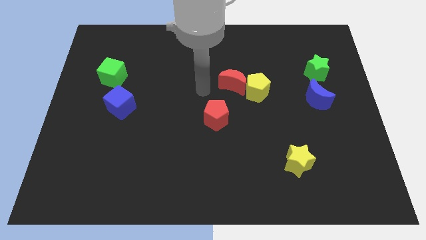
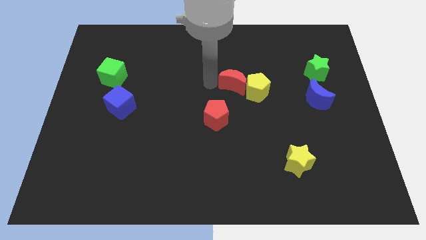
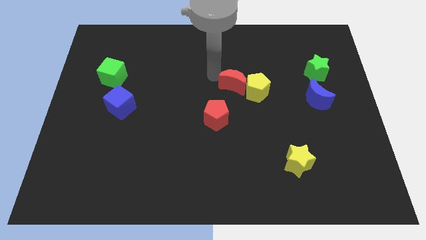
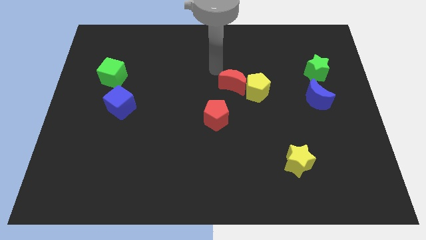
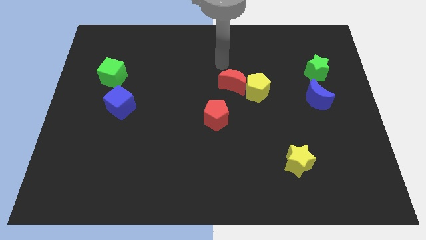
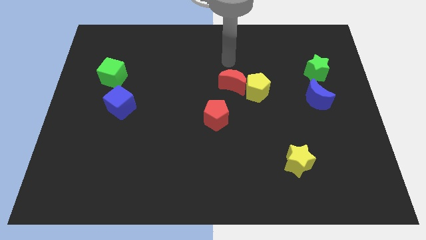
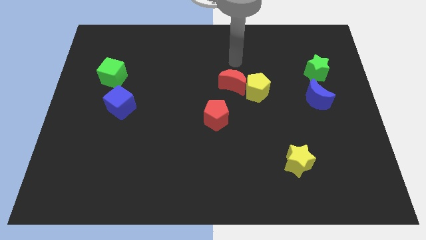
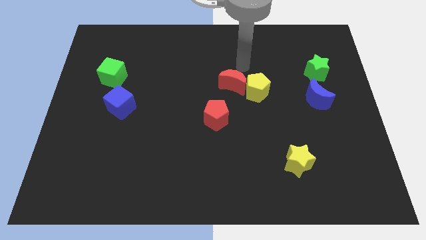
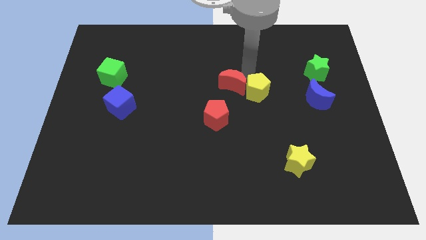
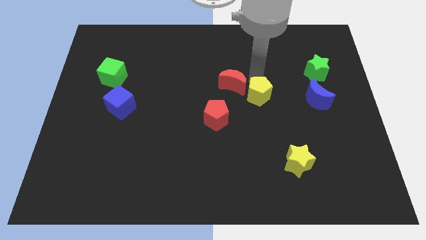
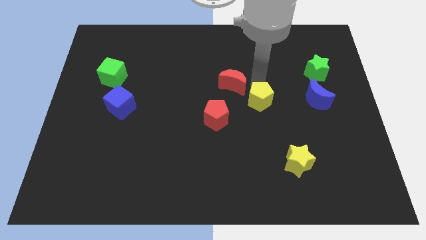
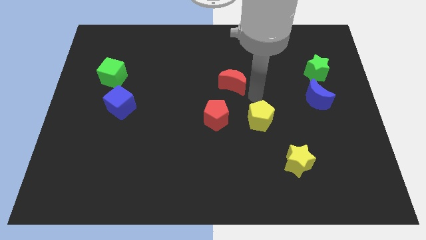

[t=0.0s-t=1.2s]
separate the red moon from the yellow pentagon

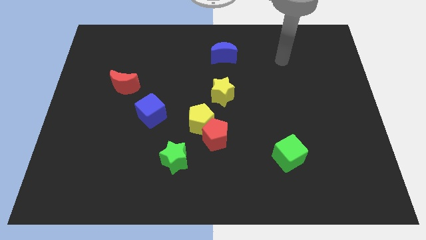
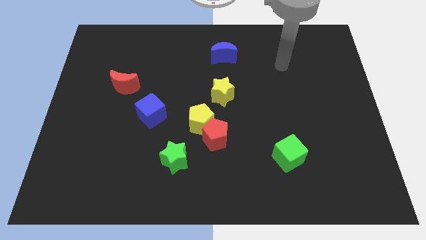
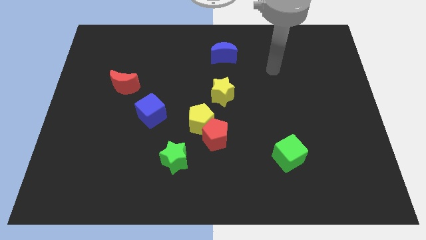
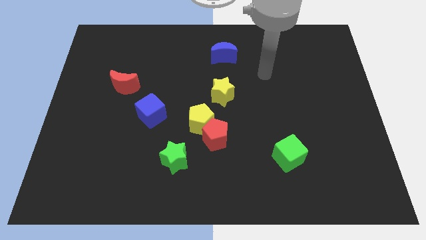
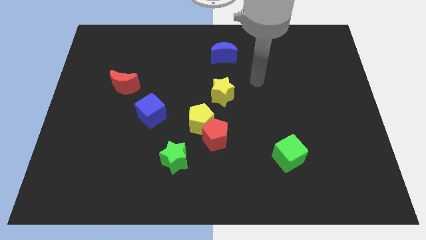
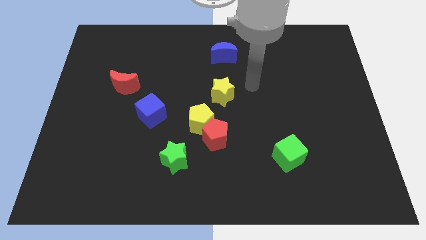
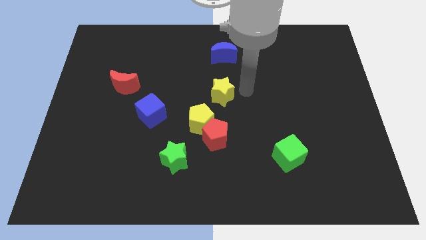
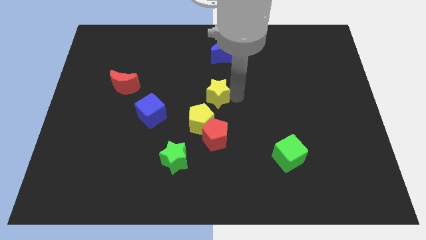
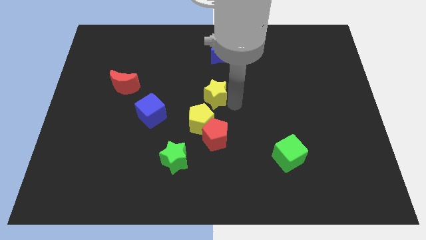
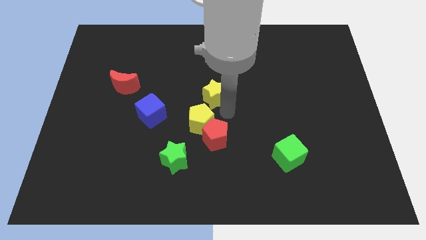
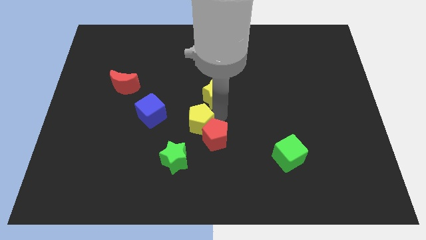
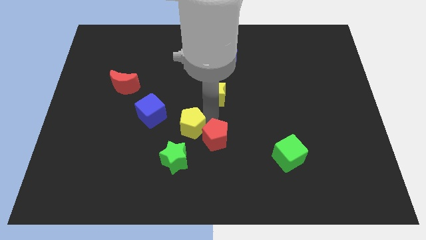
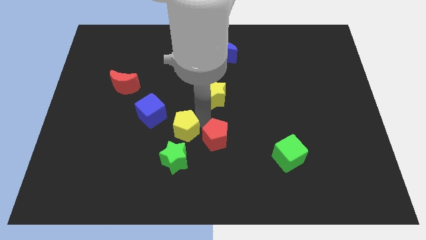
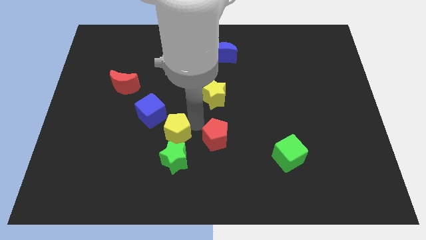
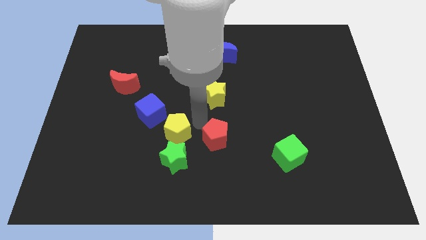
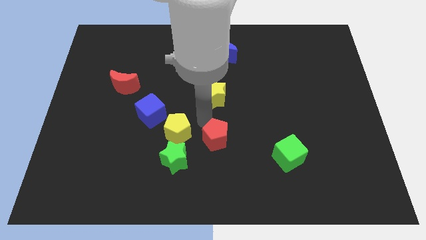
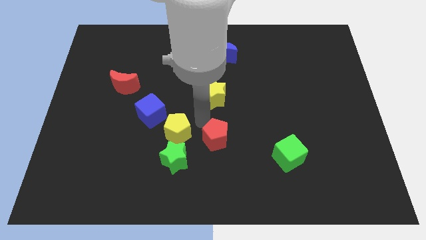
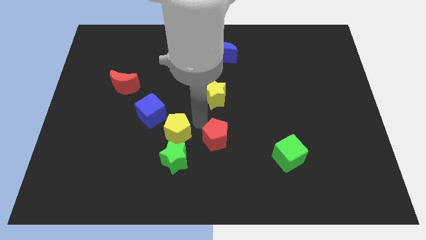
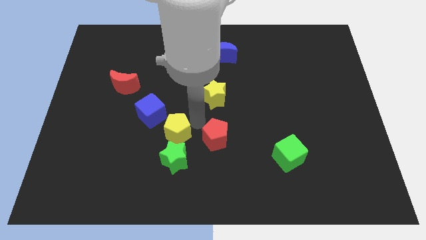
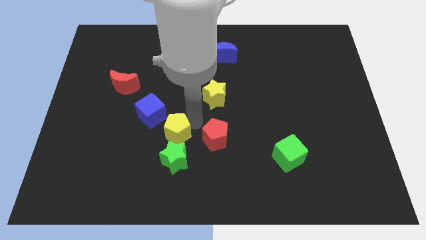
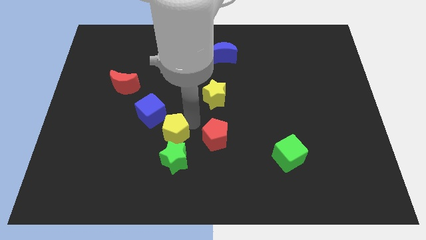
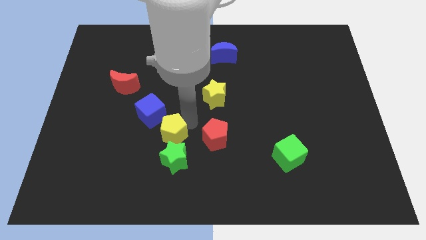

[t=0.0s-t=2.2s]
move the yellow pentagon away from the red pentagon and yellow star

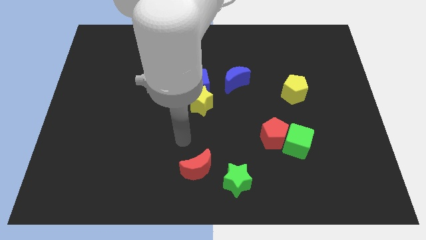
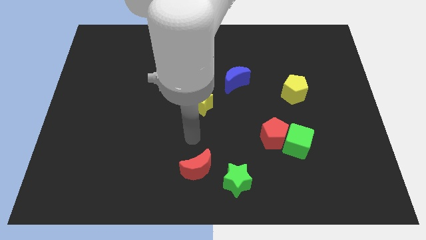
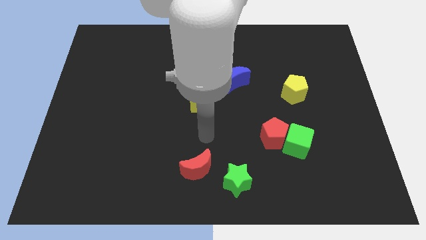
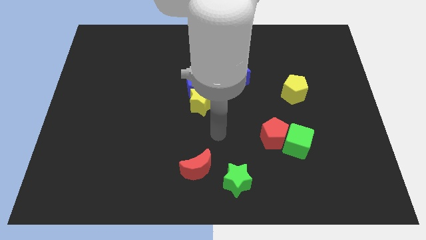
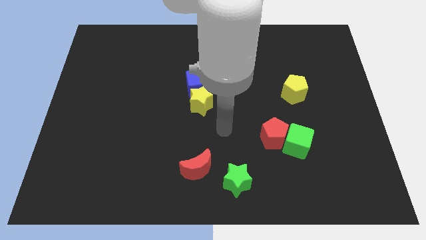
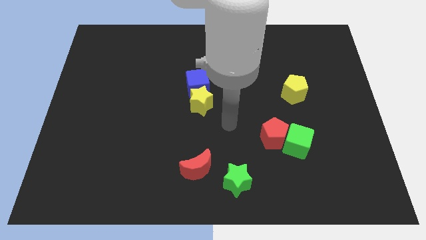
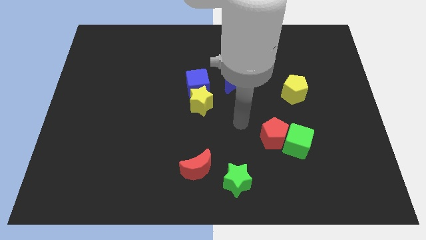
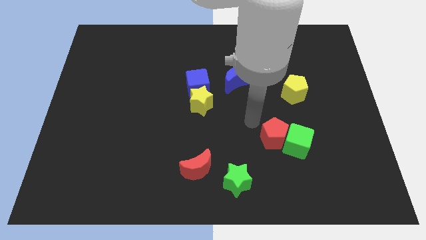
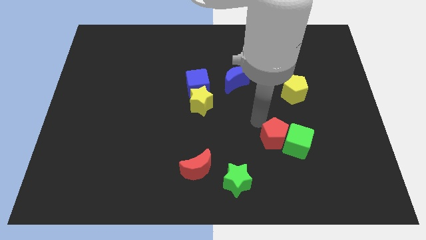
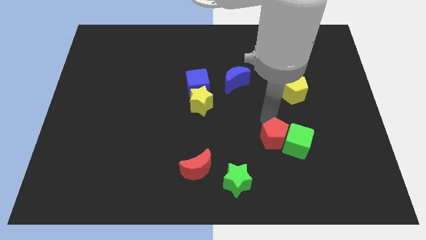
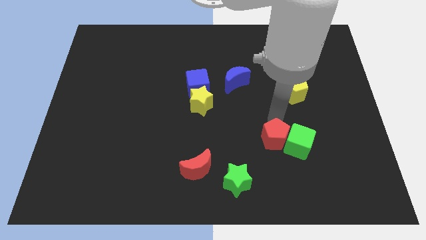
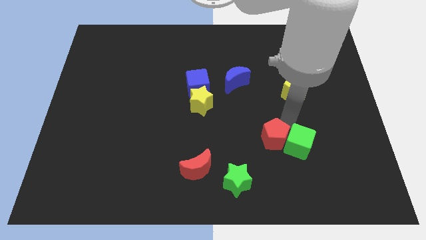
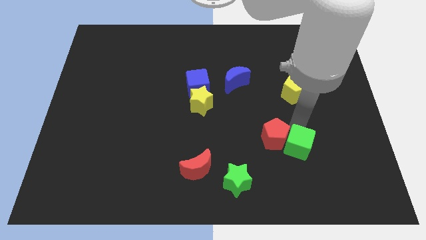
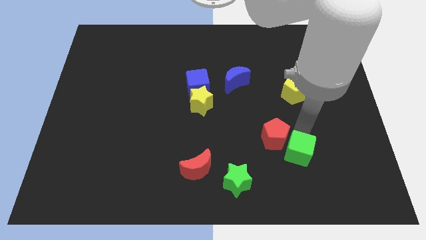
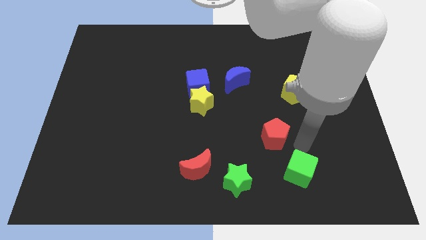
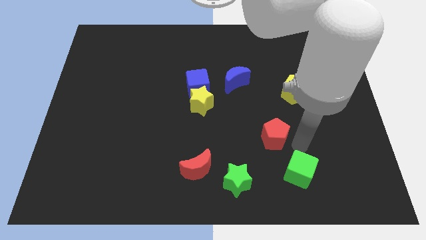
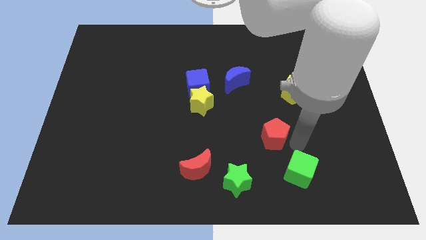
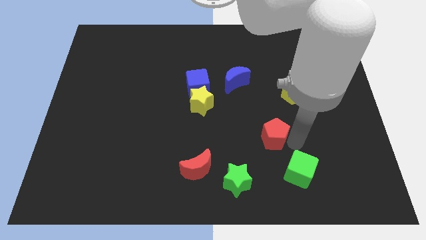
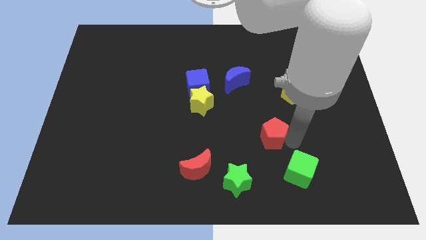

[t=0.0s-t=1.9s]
pull the red pentagon apart from the green cube

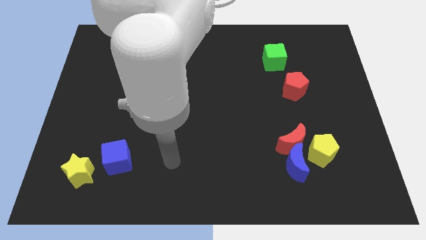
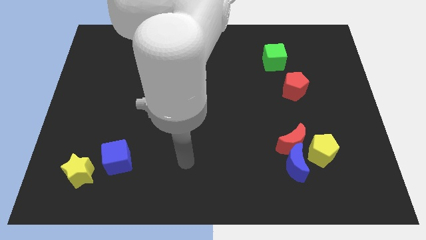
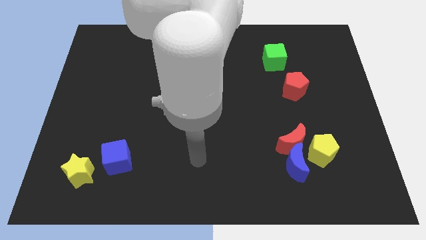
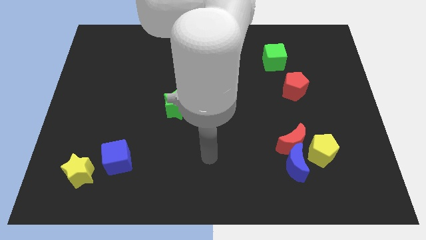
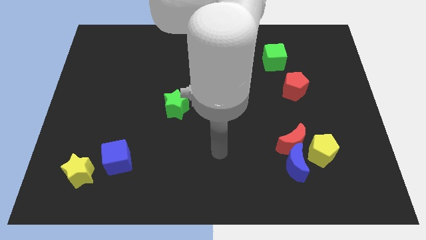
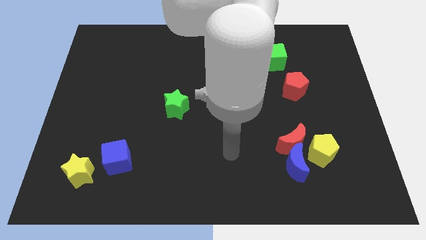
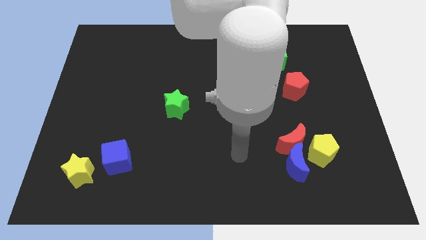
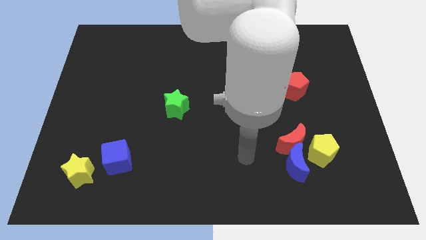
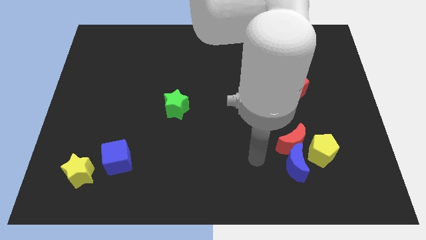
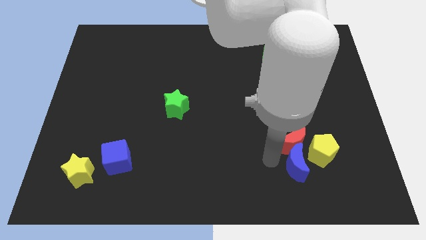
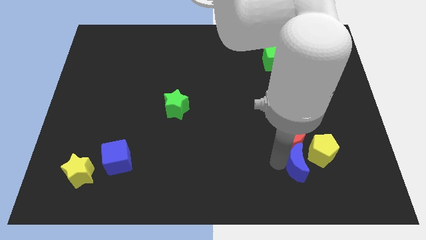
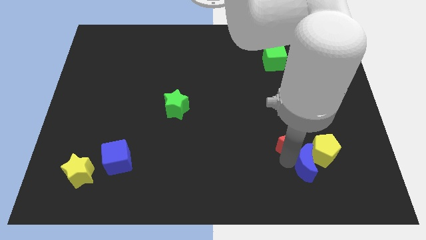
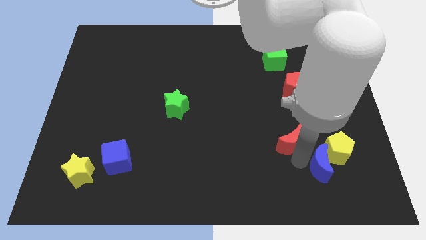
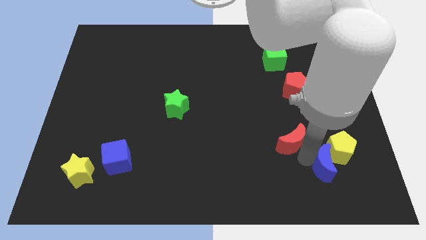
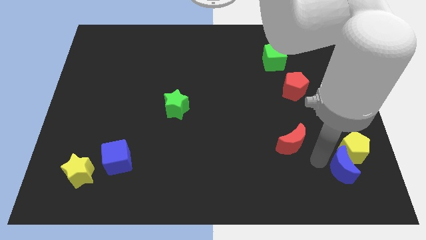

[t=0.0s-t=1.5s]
separate the red moon from the blue moon and yellow pentagon

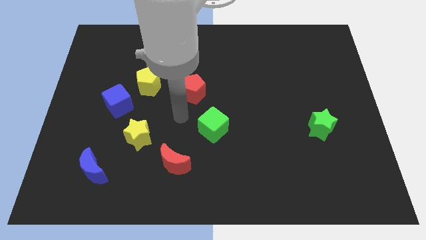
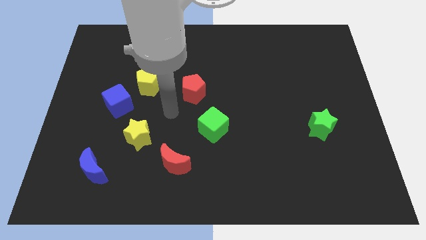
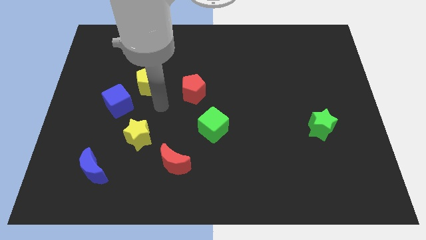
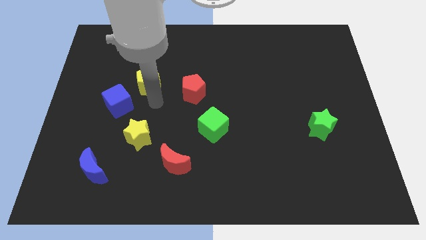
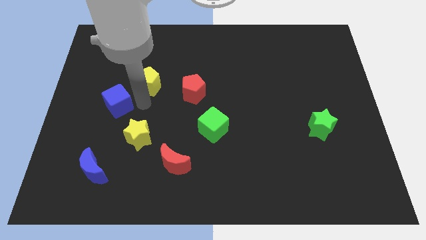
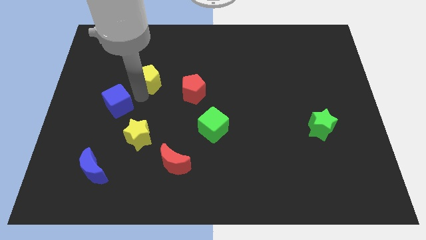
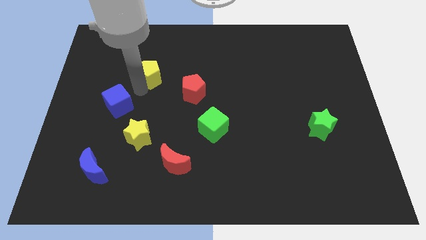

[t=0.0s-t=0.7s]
separate the blue cube from the yellow pentagon

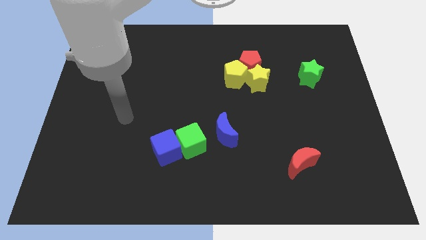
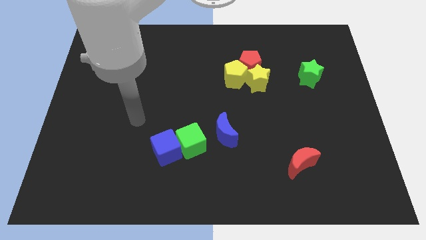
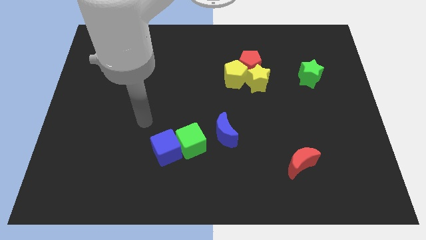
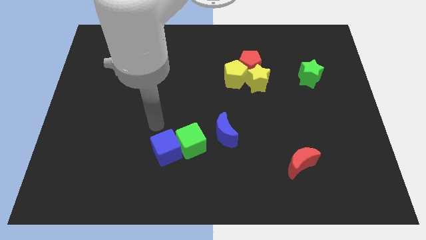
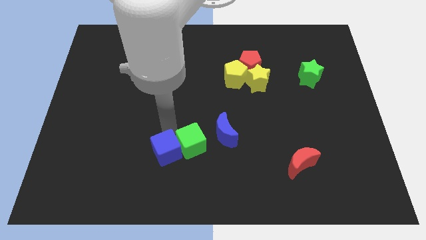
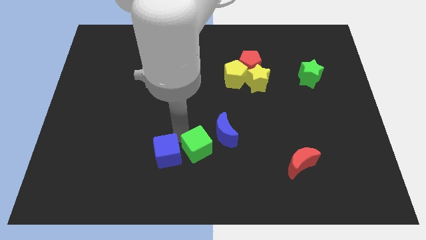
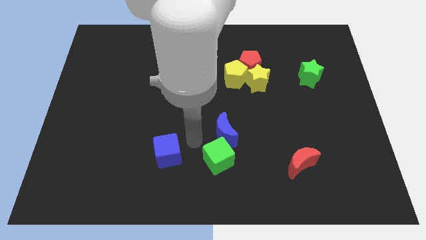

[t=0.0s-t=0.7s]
pull the blue cube apart from the green cube

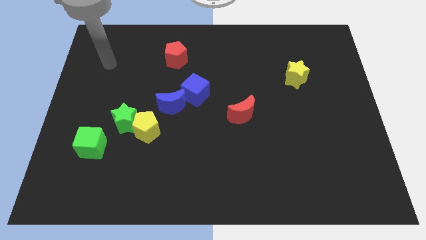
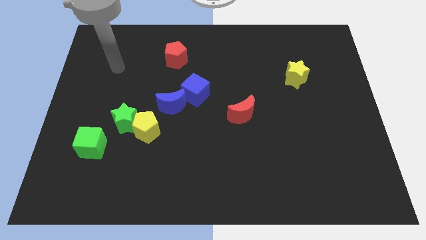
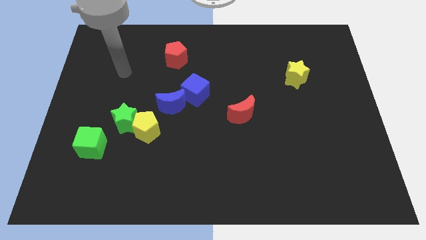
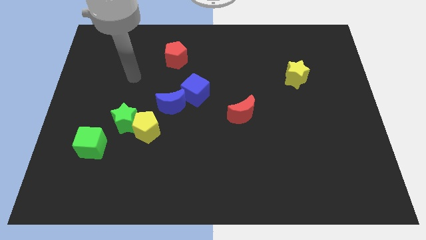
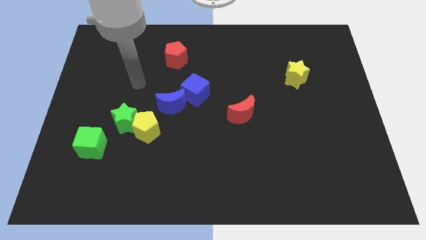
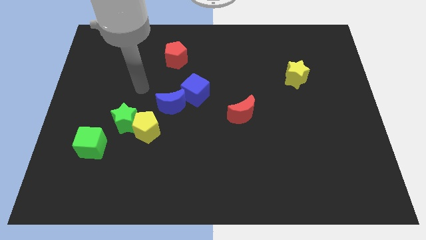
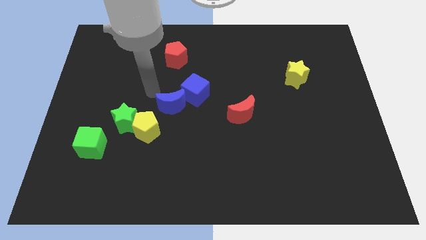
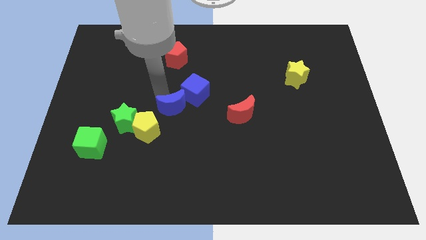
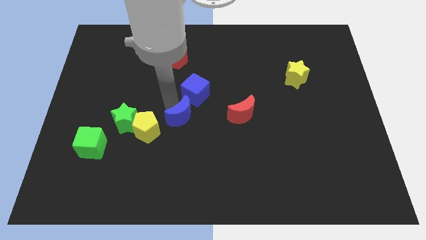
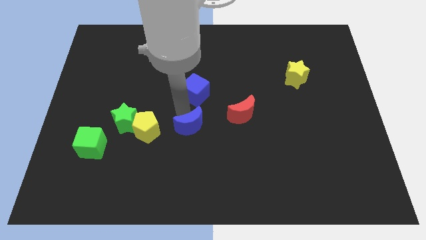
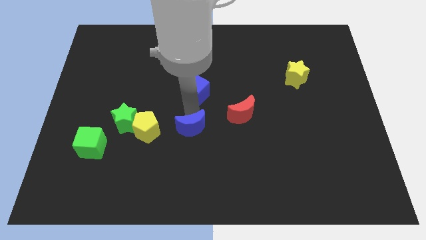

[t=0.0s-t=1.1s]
pull the blue cube apart from the blue moon
